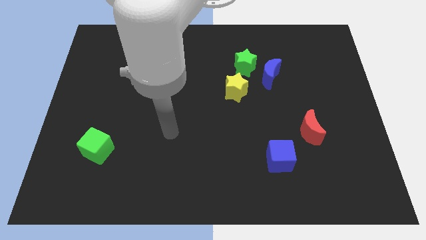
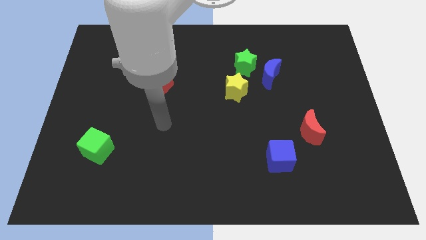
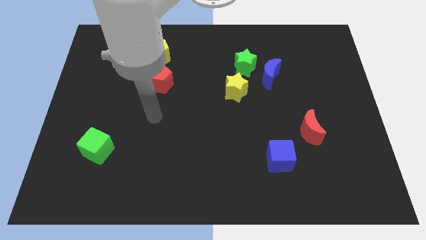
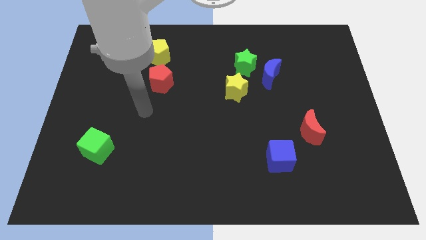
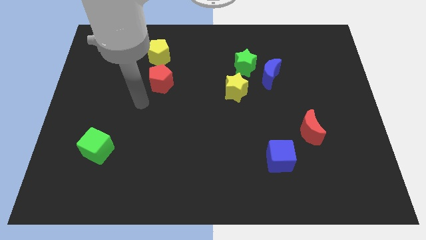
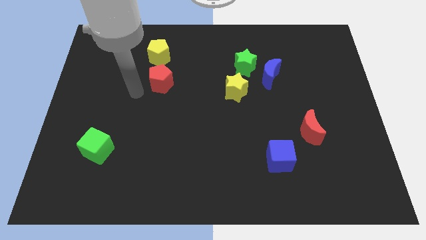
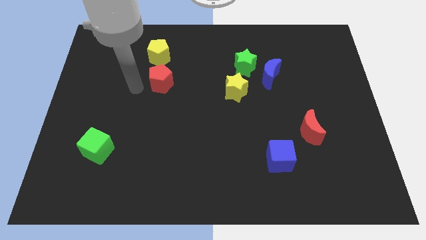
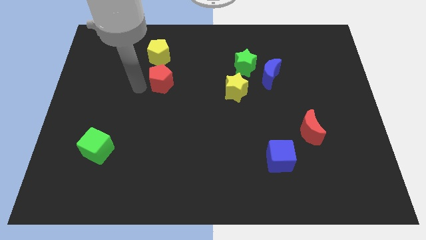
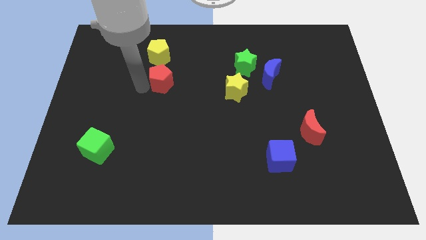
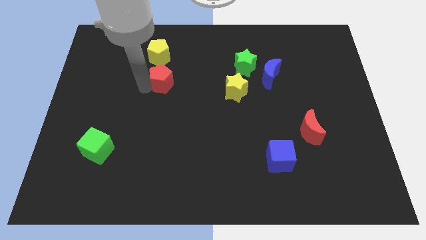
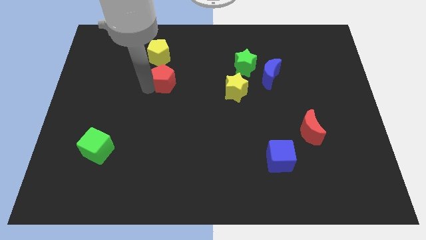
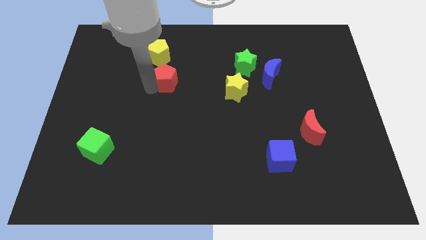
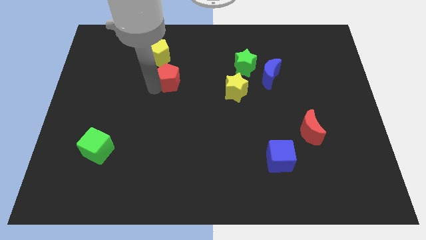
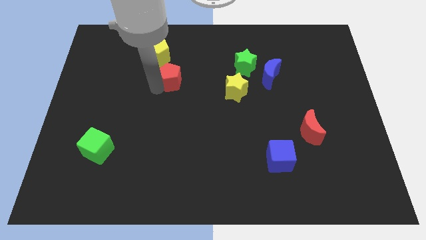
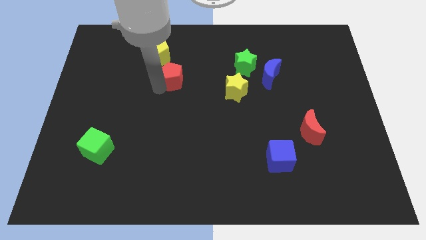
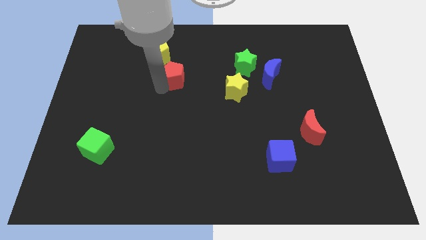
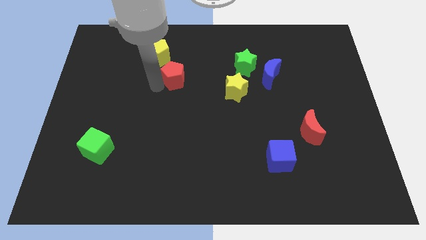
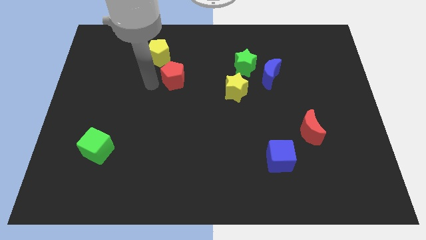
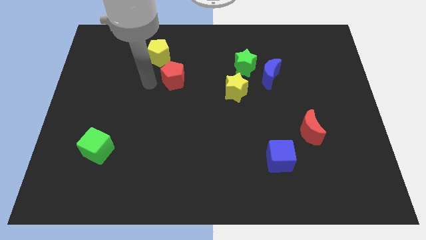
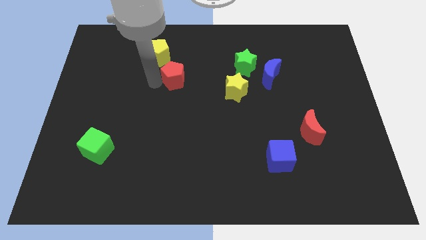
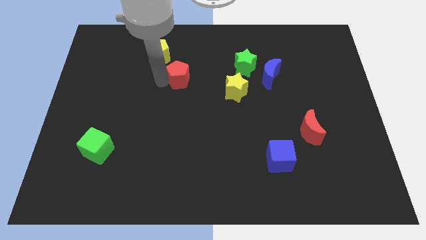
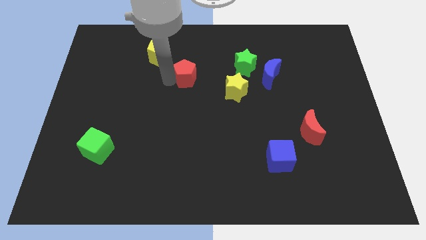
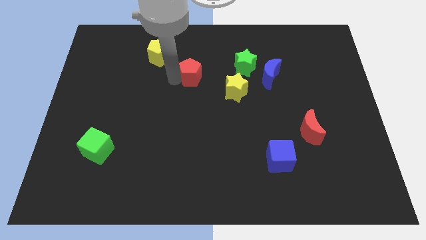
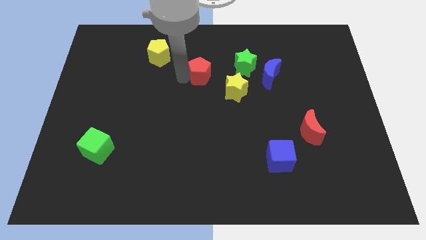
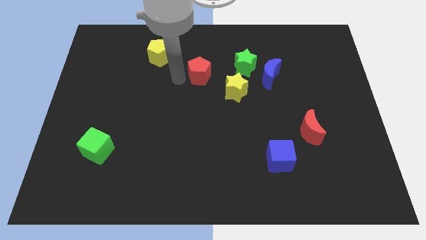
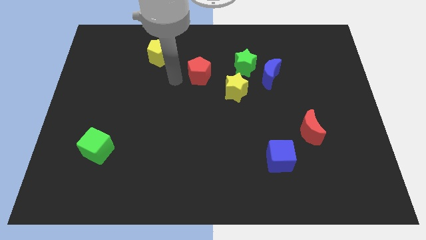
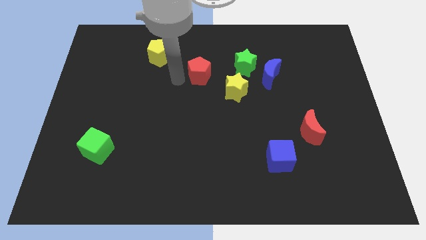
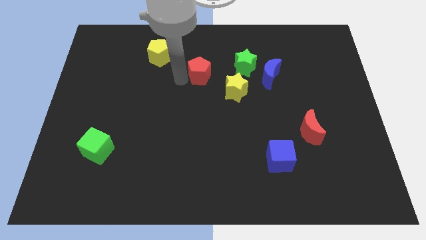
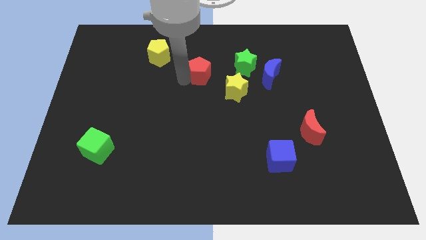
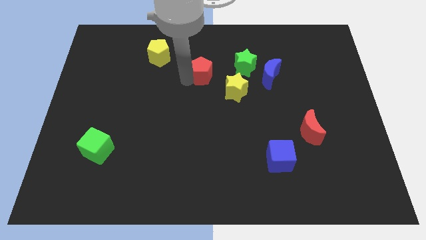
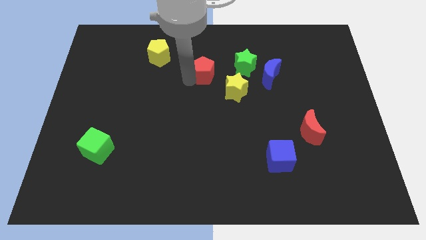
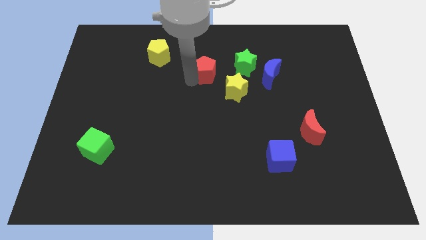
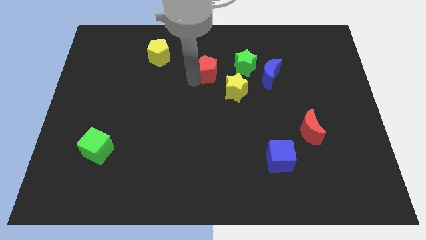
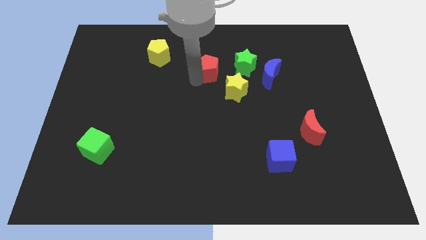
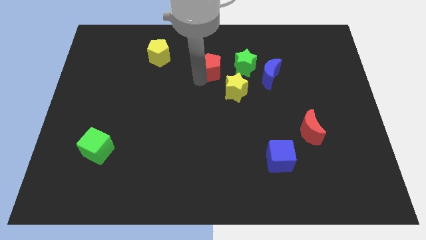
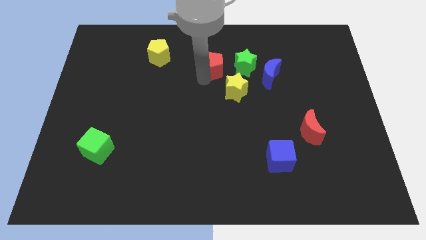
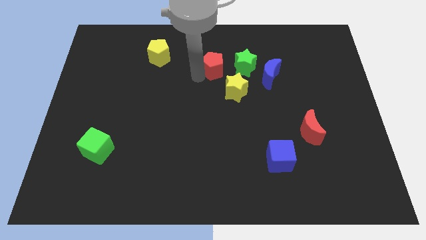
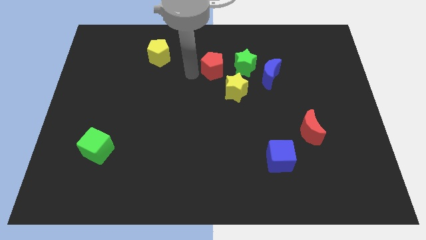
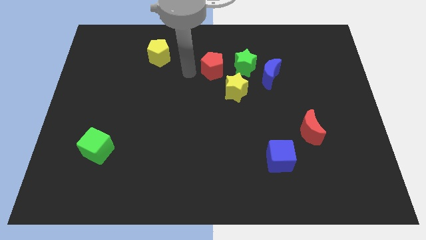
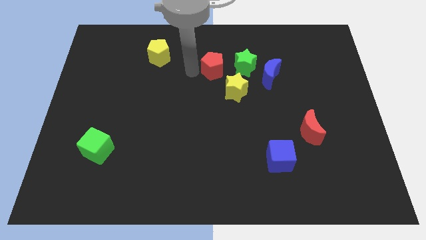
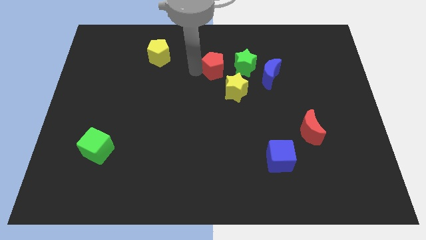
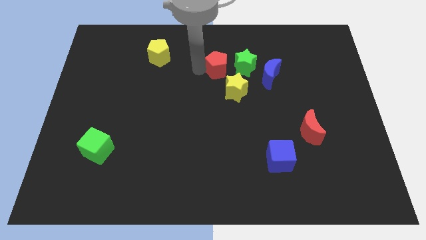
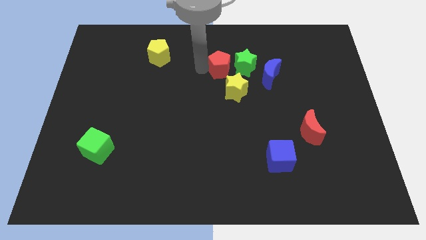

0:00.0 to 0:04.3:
push the red pentagon next to the green star

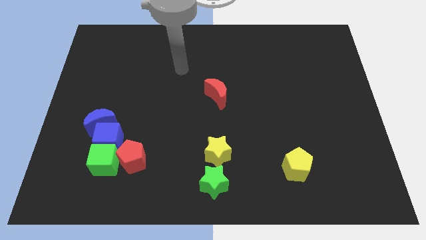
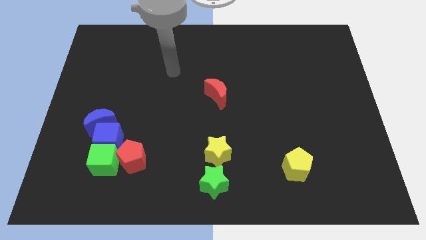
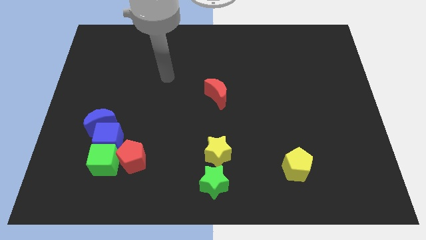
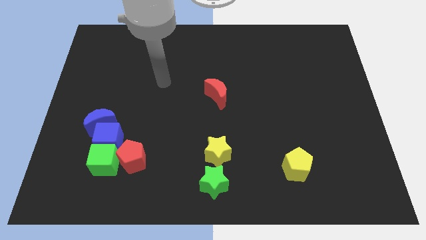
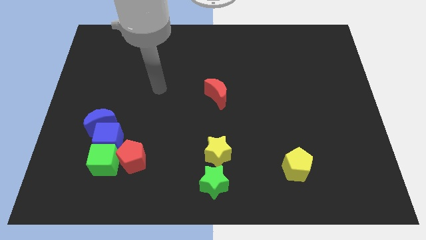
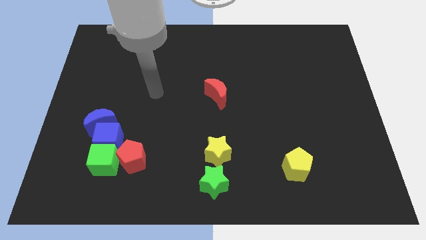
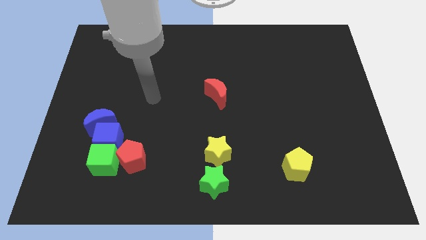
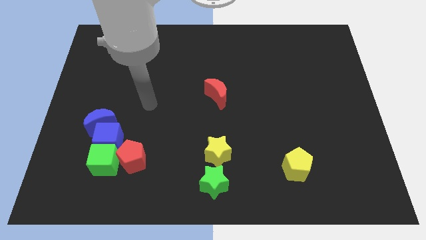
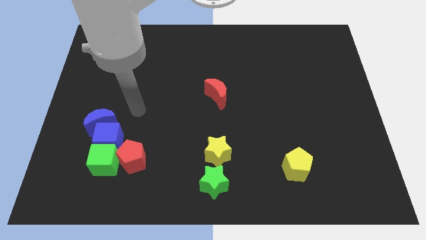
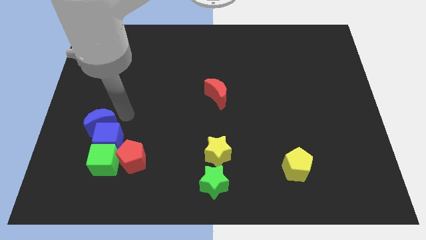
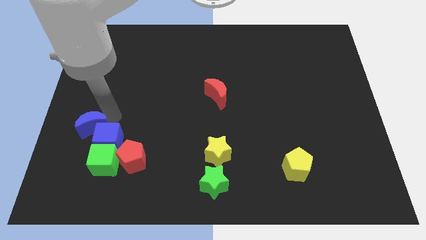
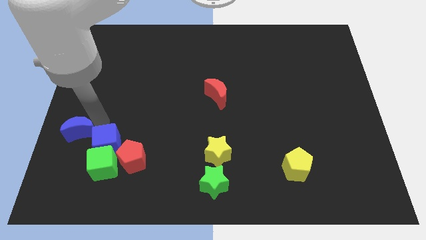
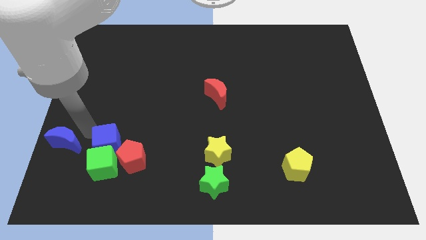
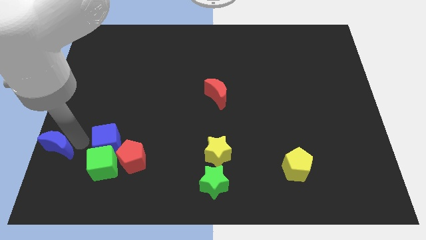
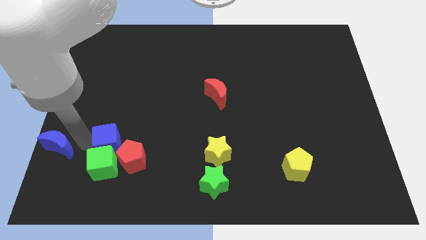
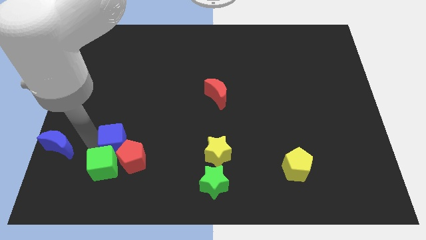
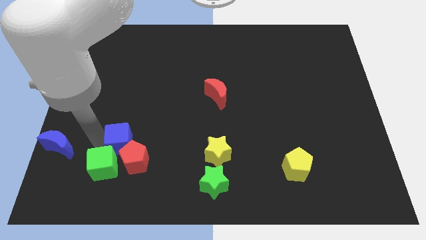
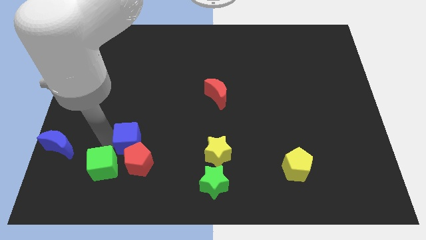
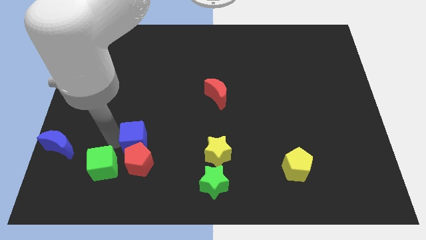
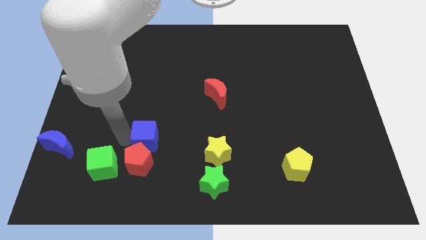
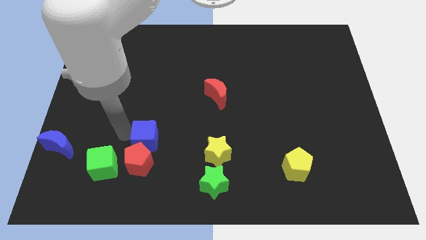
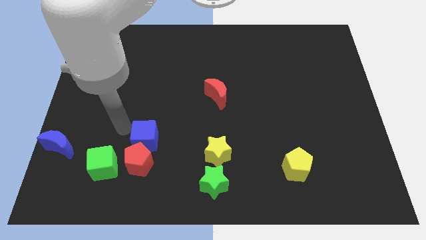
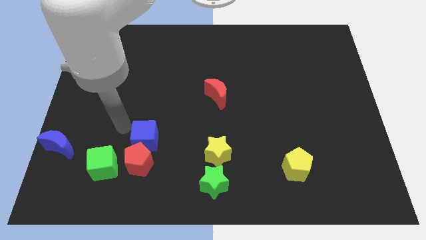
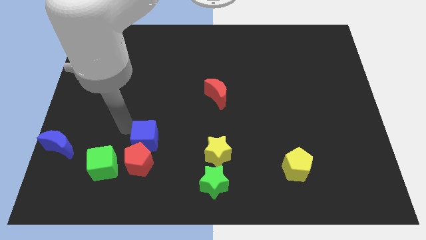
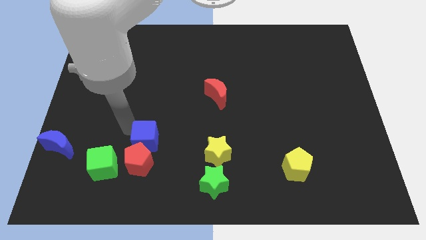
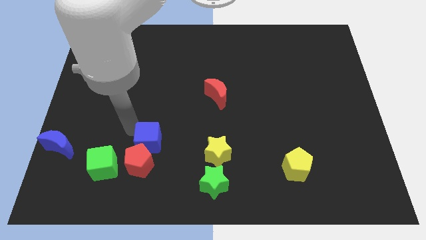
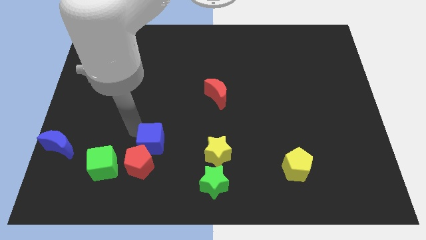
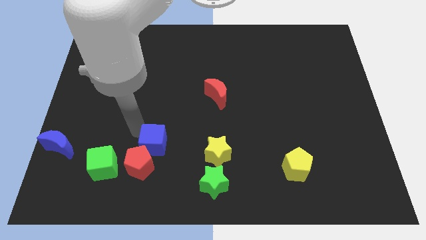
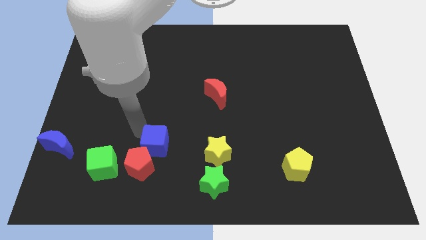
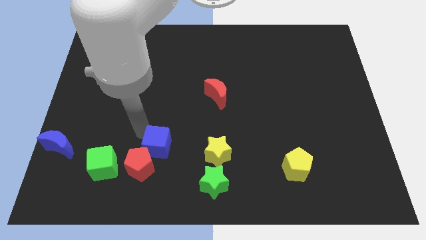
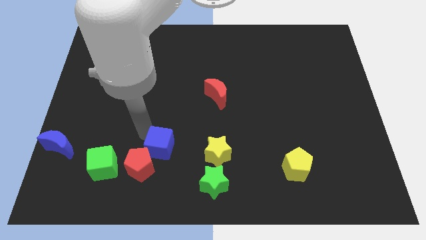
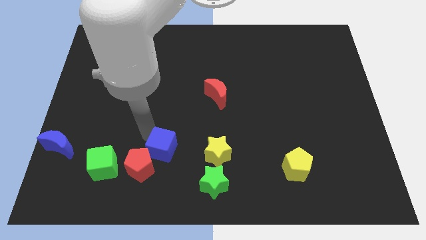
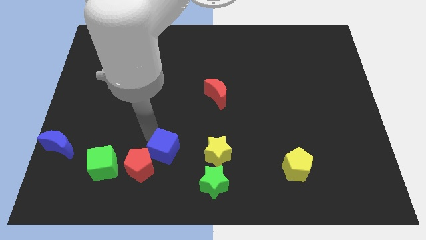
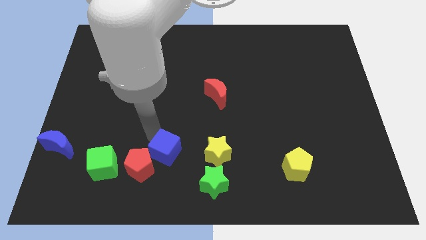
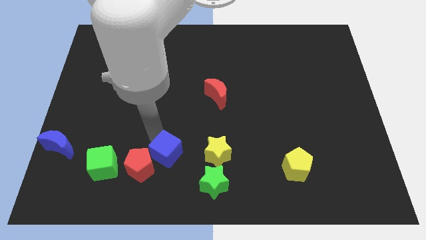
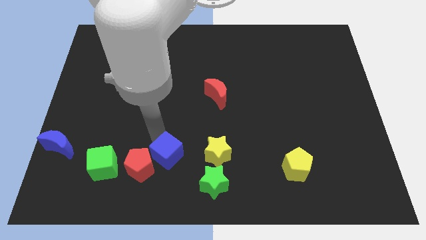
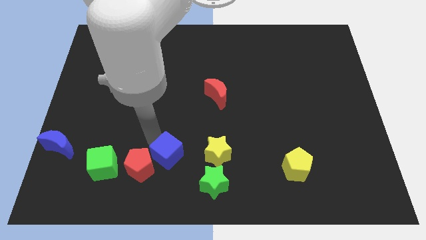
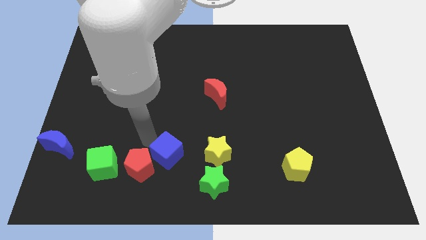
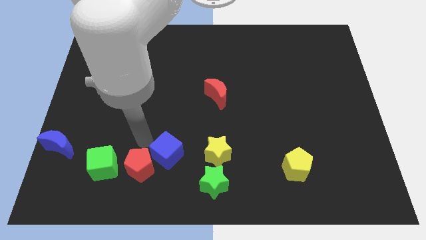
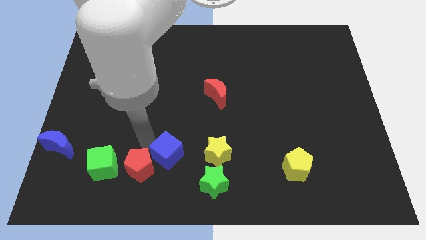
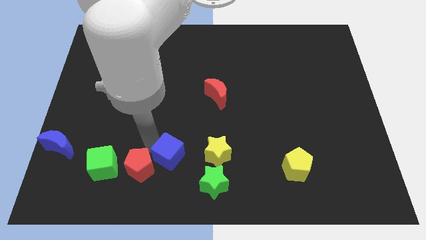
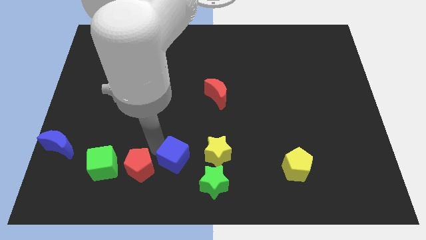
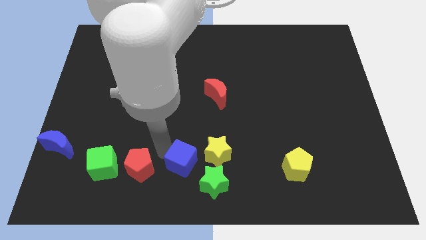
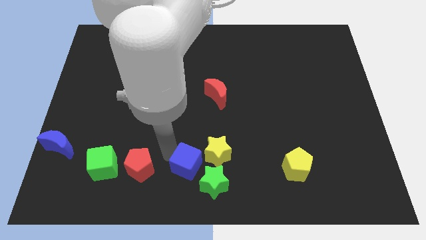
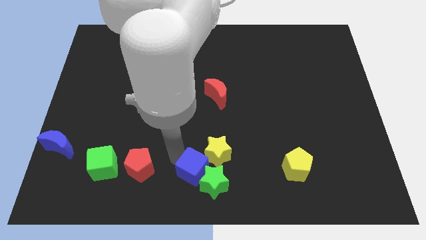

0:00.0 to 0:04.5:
push the blue cube close to the green star
